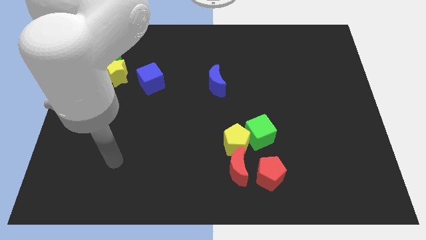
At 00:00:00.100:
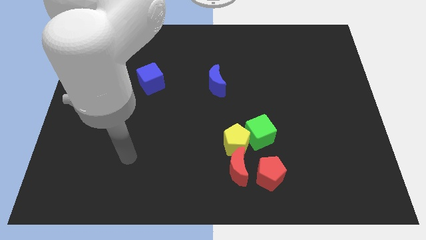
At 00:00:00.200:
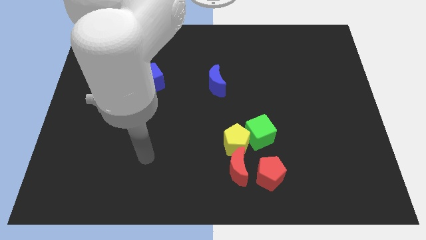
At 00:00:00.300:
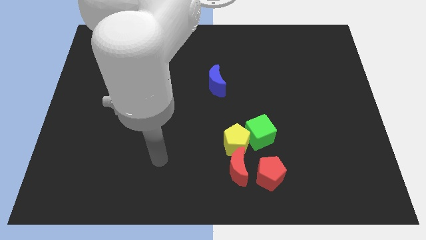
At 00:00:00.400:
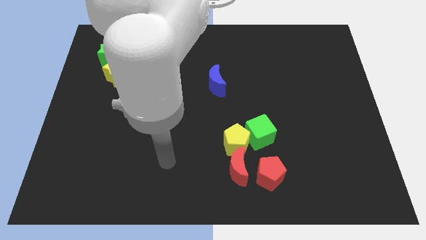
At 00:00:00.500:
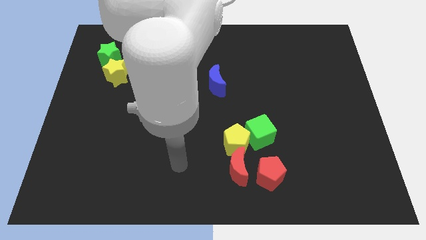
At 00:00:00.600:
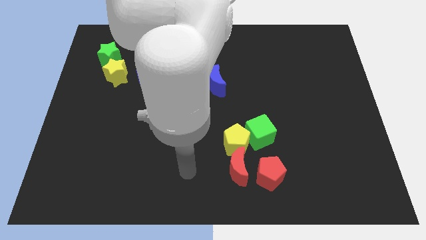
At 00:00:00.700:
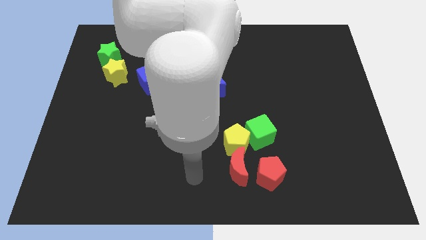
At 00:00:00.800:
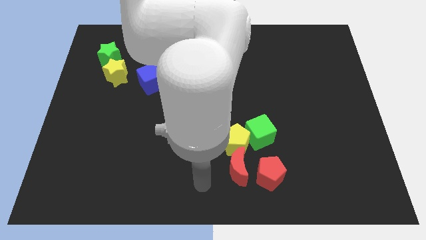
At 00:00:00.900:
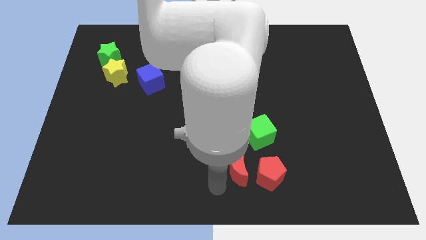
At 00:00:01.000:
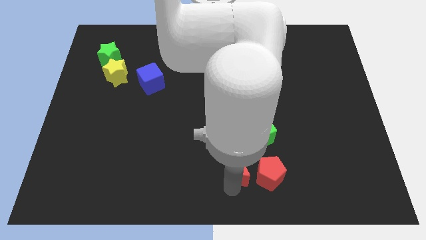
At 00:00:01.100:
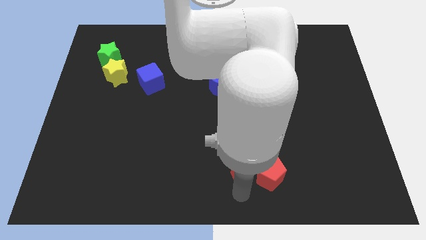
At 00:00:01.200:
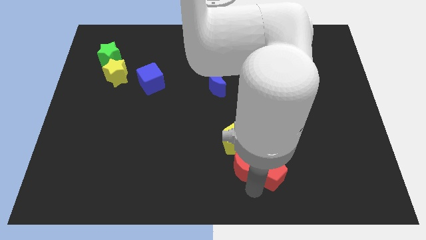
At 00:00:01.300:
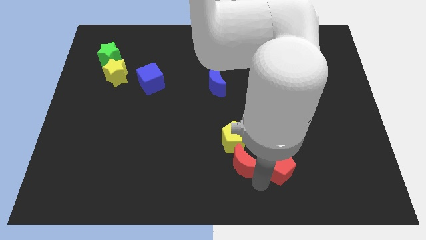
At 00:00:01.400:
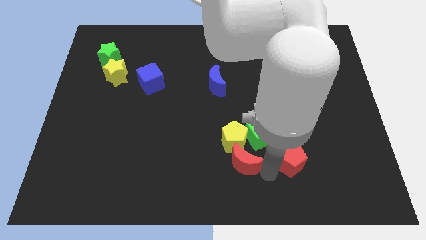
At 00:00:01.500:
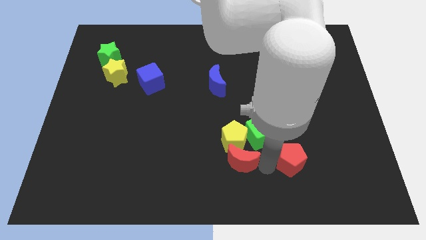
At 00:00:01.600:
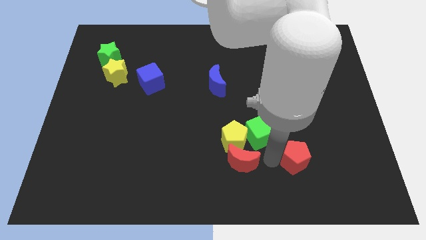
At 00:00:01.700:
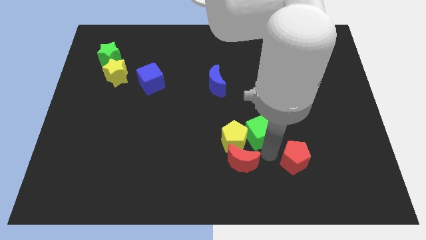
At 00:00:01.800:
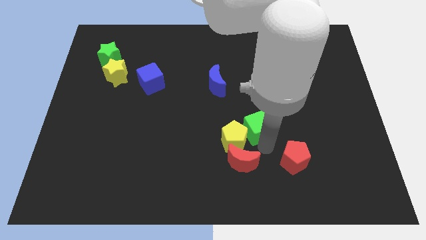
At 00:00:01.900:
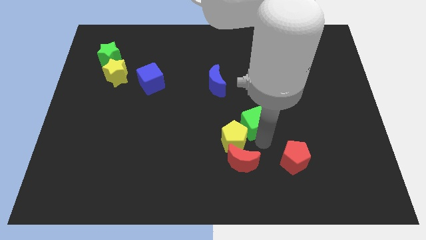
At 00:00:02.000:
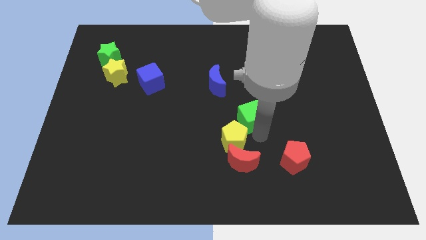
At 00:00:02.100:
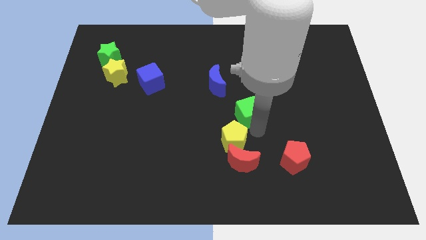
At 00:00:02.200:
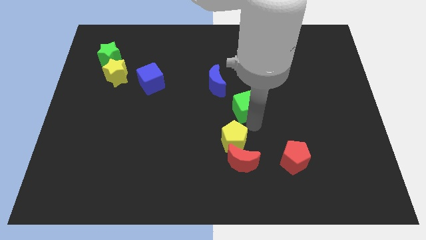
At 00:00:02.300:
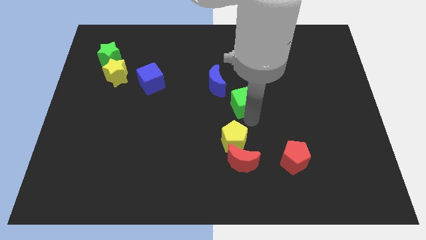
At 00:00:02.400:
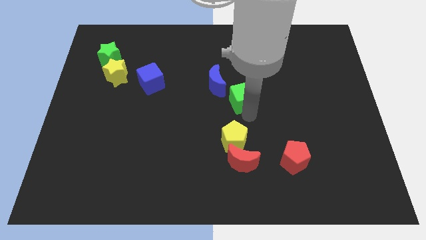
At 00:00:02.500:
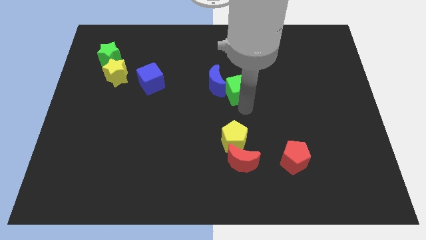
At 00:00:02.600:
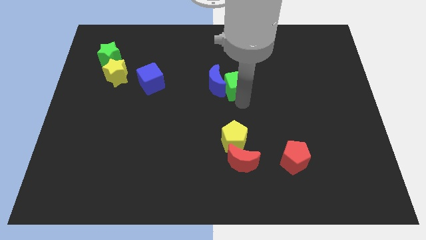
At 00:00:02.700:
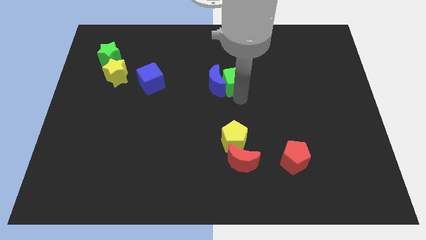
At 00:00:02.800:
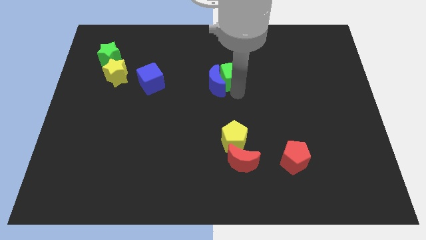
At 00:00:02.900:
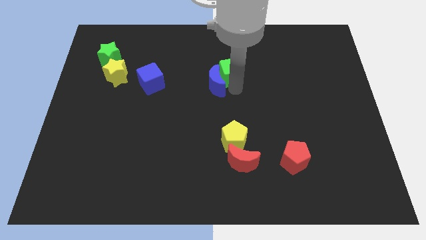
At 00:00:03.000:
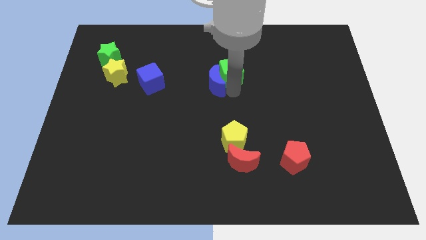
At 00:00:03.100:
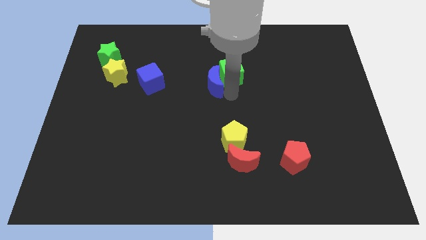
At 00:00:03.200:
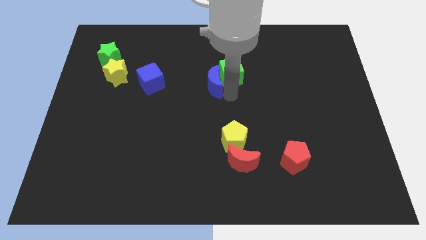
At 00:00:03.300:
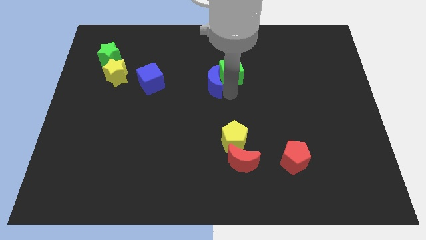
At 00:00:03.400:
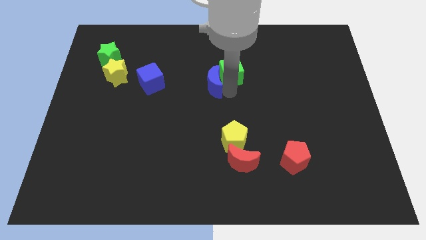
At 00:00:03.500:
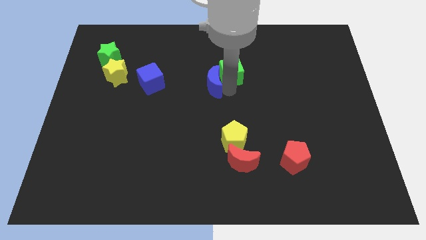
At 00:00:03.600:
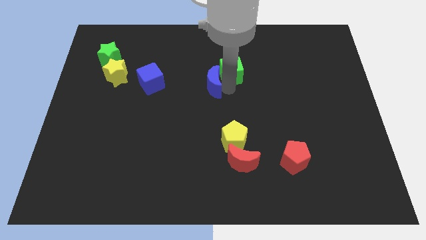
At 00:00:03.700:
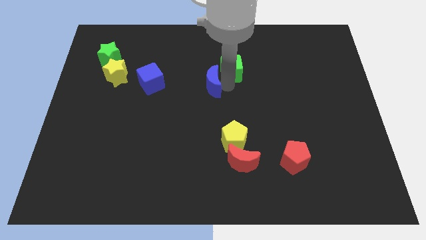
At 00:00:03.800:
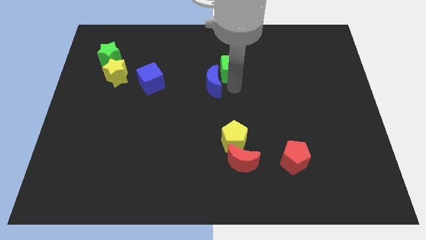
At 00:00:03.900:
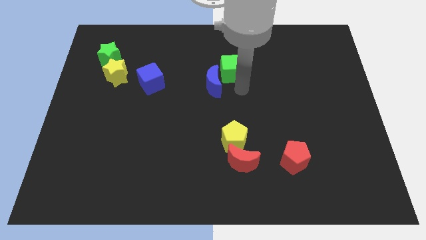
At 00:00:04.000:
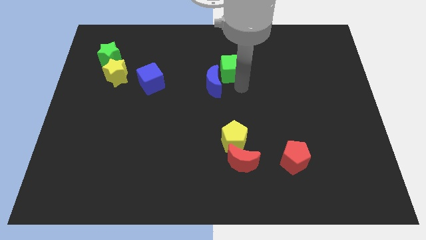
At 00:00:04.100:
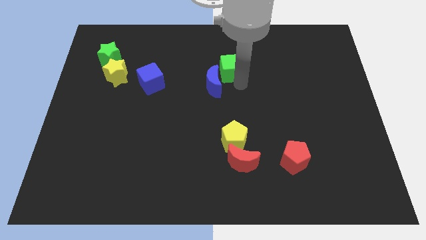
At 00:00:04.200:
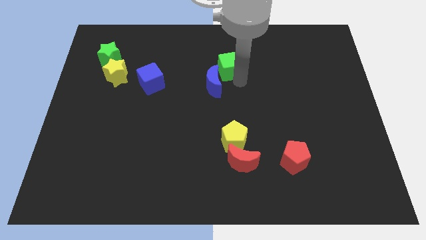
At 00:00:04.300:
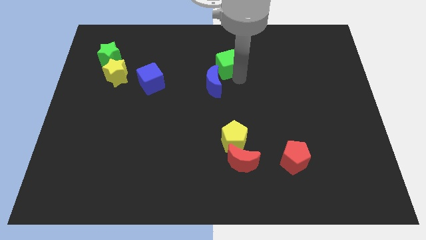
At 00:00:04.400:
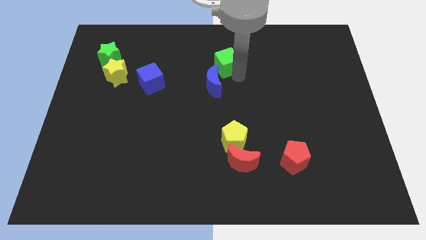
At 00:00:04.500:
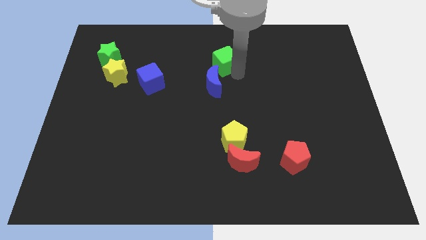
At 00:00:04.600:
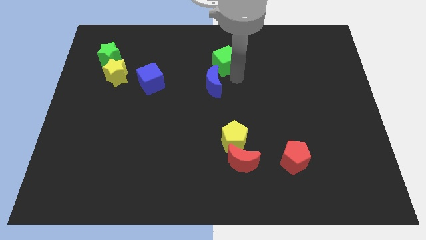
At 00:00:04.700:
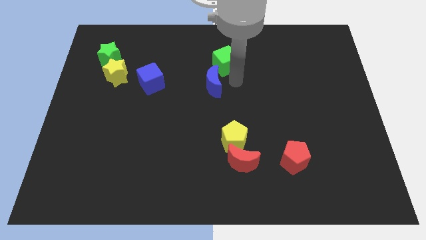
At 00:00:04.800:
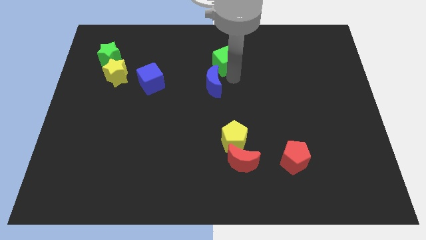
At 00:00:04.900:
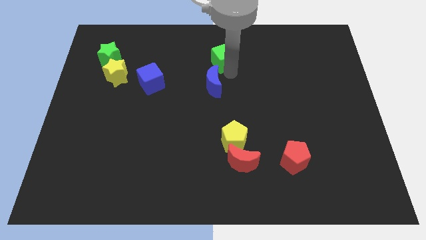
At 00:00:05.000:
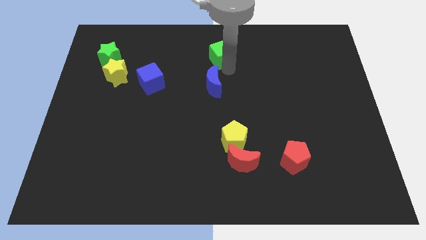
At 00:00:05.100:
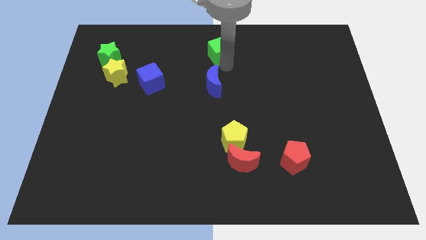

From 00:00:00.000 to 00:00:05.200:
push the green cube to the top

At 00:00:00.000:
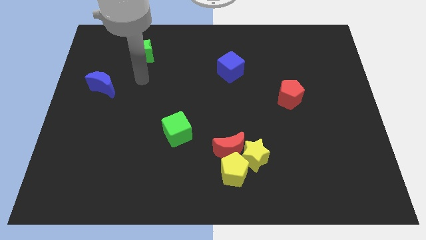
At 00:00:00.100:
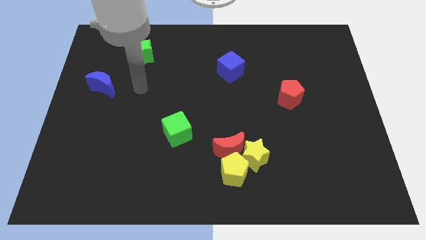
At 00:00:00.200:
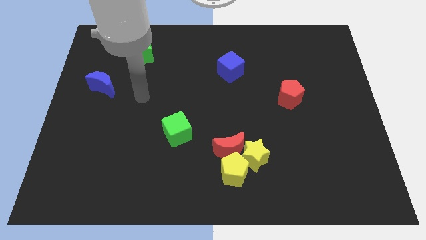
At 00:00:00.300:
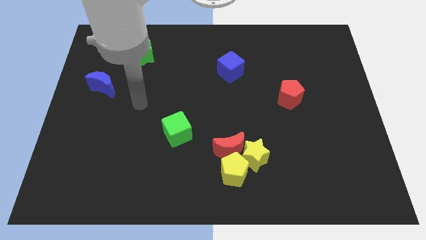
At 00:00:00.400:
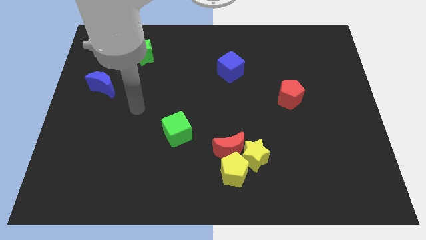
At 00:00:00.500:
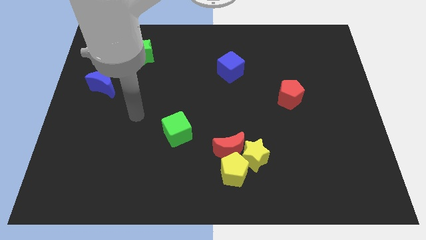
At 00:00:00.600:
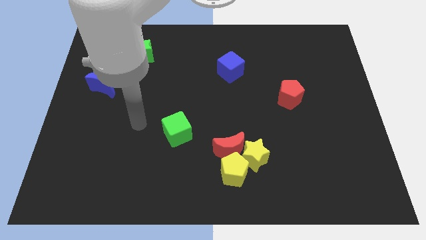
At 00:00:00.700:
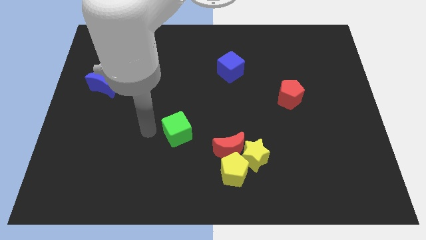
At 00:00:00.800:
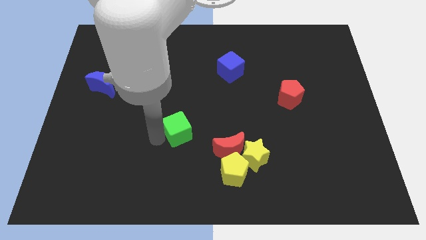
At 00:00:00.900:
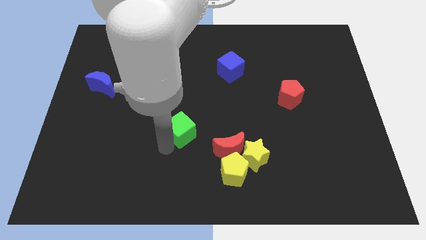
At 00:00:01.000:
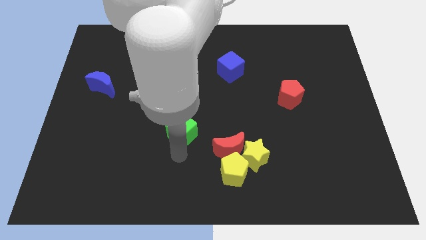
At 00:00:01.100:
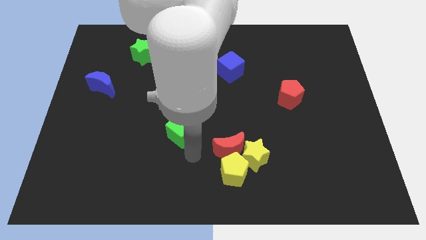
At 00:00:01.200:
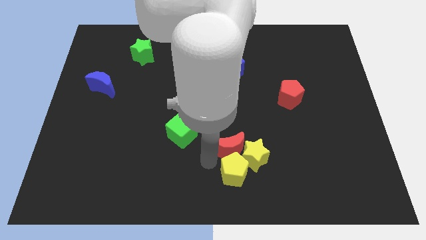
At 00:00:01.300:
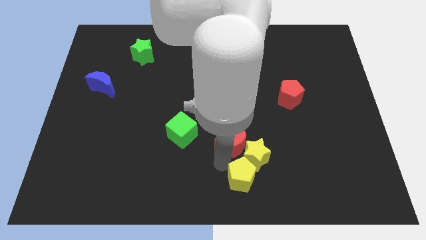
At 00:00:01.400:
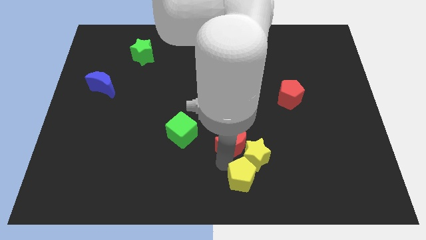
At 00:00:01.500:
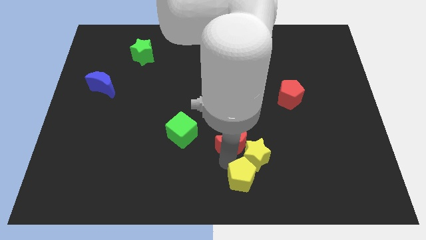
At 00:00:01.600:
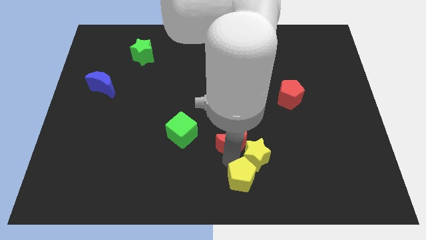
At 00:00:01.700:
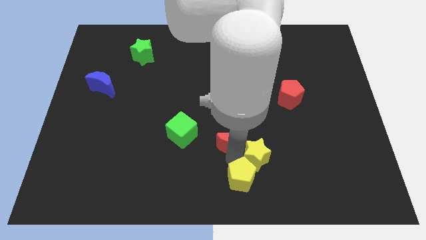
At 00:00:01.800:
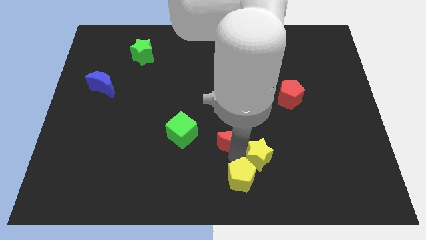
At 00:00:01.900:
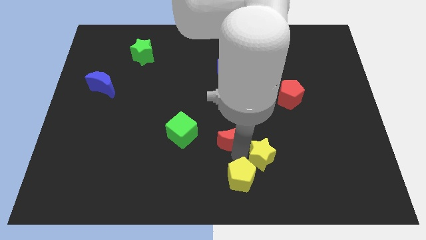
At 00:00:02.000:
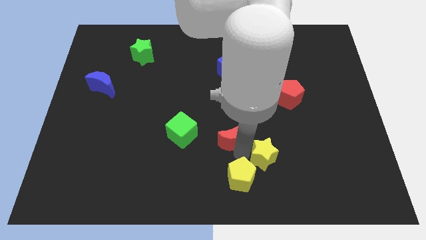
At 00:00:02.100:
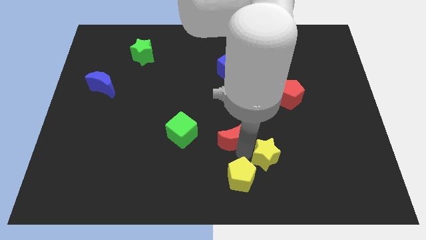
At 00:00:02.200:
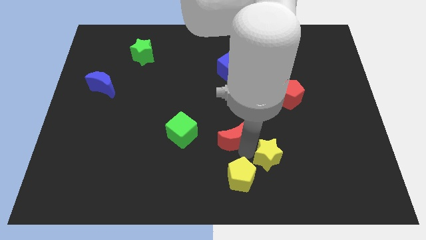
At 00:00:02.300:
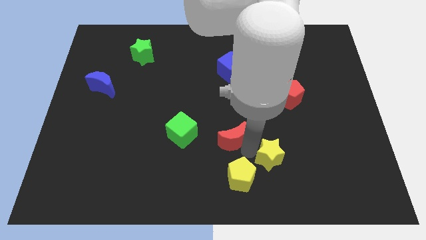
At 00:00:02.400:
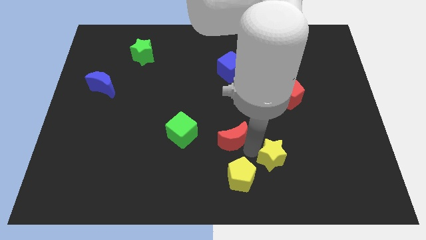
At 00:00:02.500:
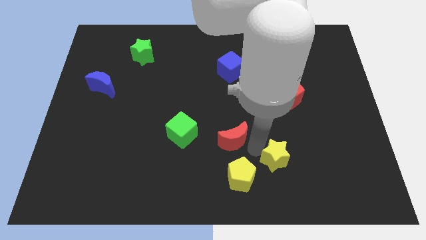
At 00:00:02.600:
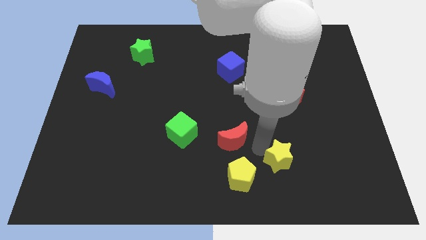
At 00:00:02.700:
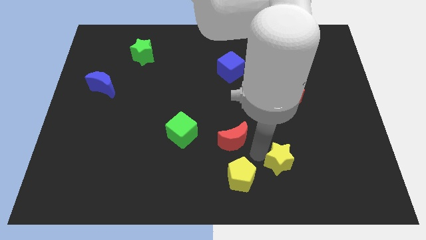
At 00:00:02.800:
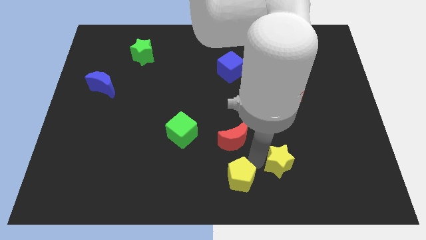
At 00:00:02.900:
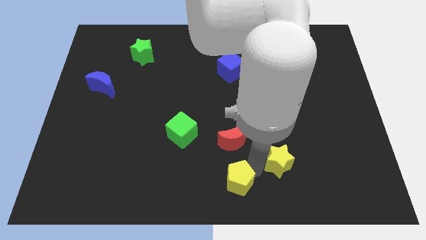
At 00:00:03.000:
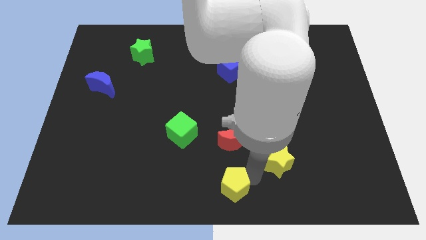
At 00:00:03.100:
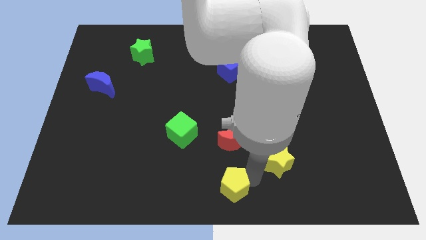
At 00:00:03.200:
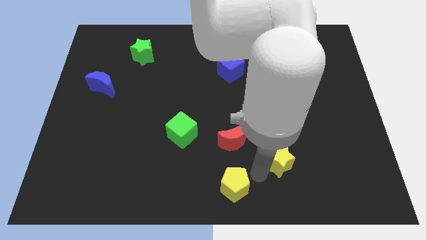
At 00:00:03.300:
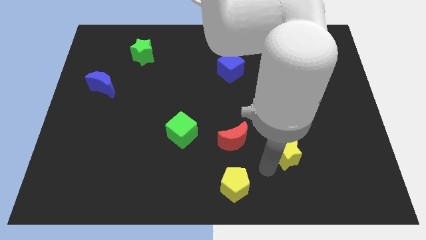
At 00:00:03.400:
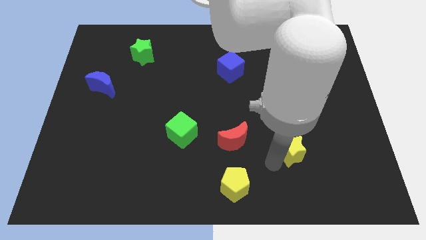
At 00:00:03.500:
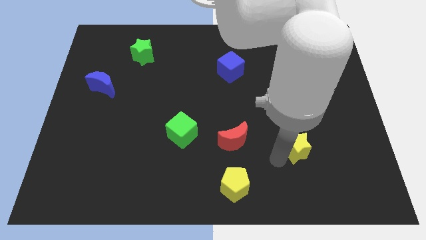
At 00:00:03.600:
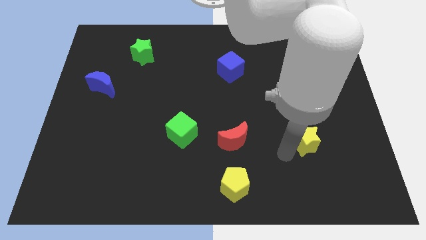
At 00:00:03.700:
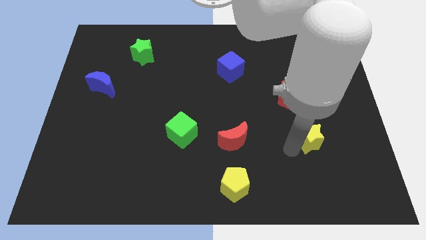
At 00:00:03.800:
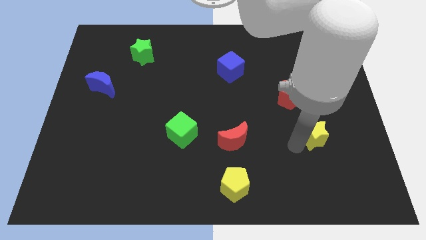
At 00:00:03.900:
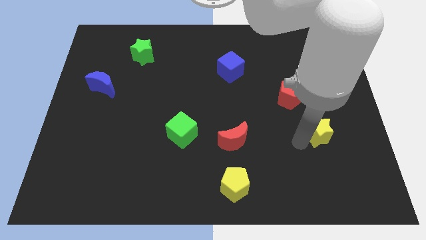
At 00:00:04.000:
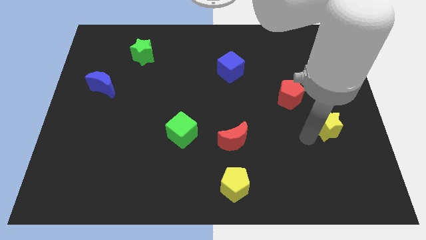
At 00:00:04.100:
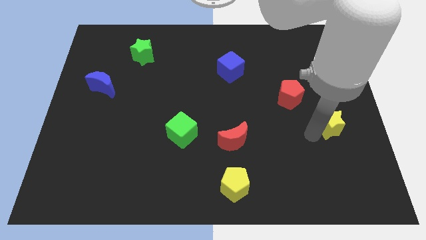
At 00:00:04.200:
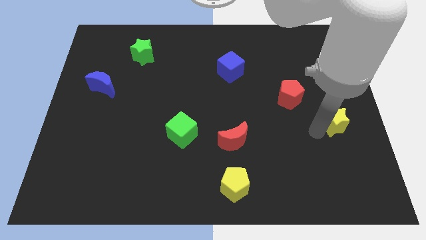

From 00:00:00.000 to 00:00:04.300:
put the yellow star to the right side of the board
